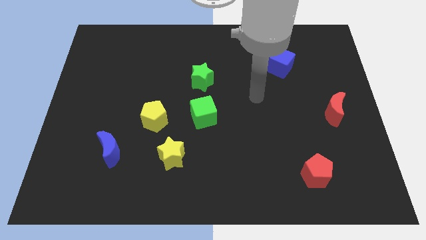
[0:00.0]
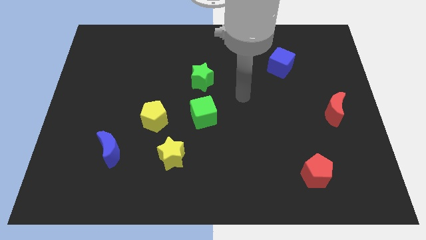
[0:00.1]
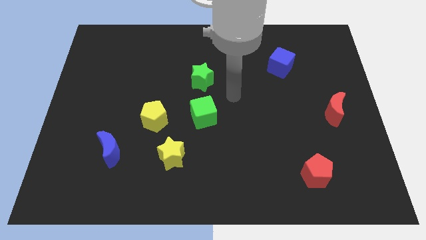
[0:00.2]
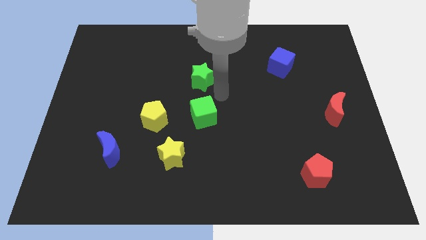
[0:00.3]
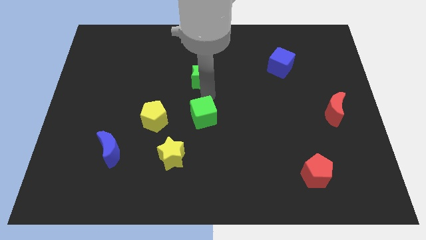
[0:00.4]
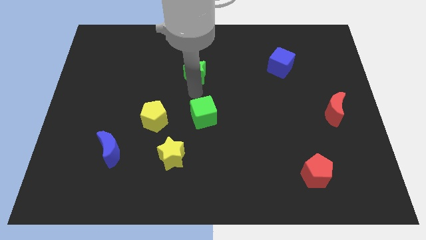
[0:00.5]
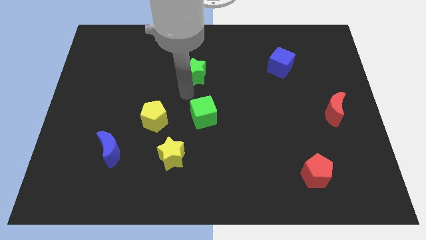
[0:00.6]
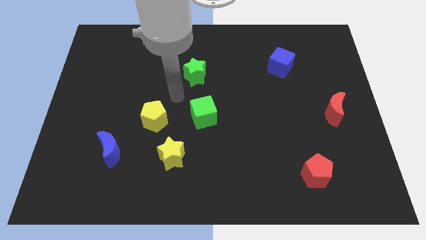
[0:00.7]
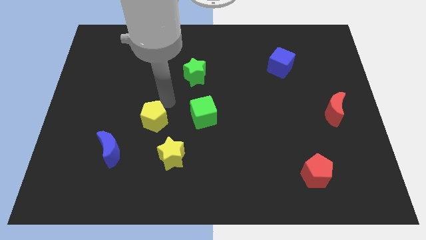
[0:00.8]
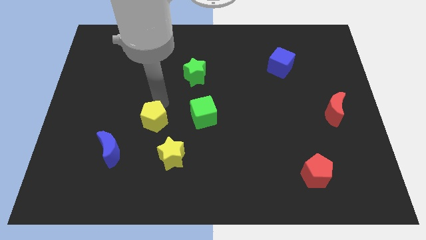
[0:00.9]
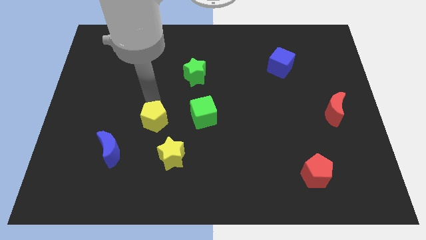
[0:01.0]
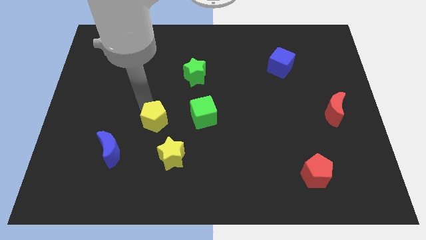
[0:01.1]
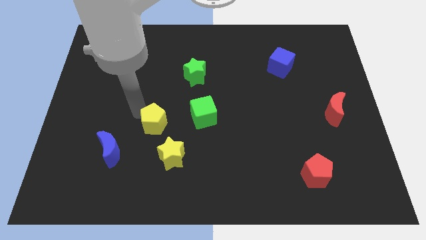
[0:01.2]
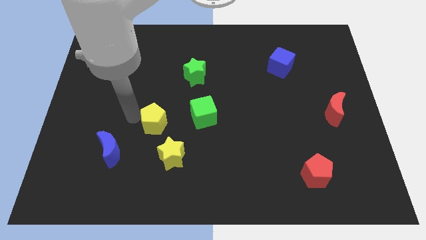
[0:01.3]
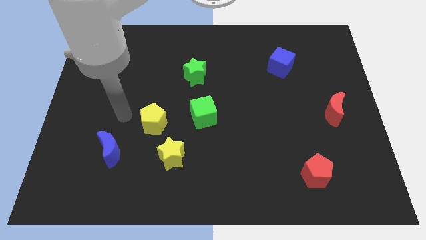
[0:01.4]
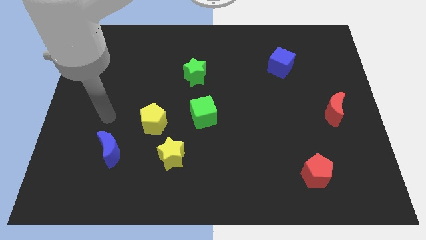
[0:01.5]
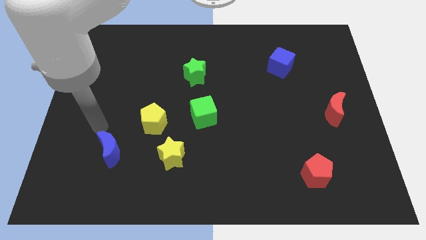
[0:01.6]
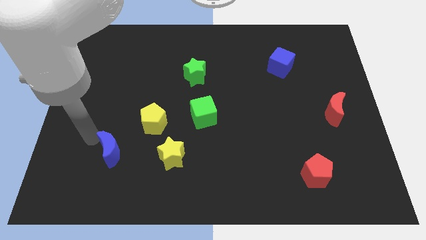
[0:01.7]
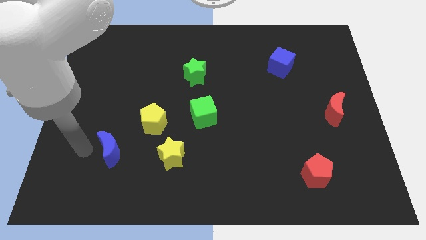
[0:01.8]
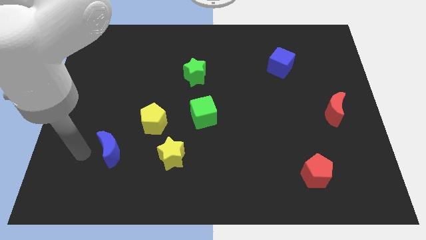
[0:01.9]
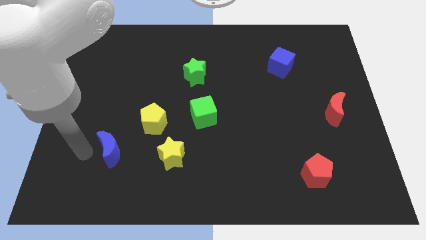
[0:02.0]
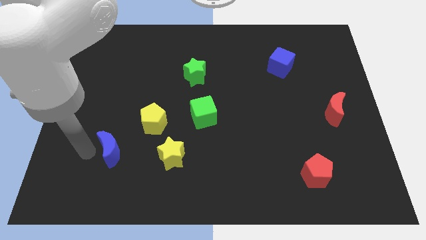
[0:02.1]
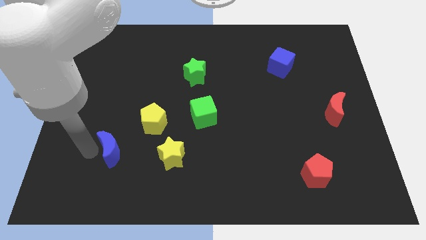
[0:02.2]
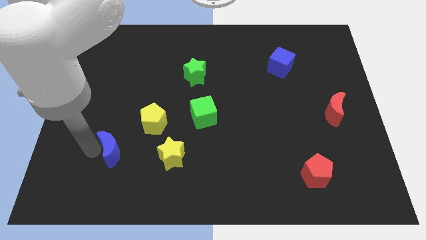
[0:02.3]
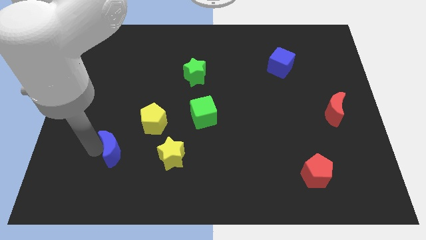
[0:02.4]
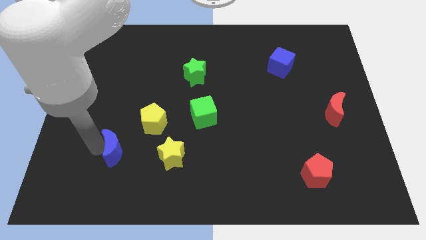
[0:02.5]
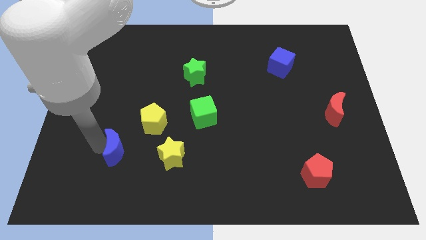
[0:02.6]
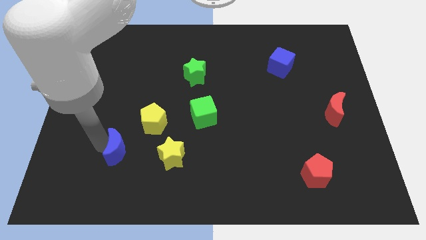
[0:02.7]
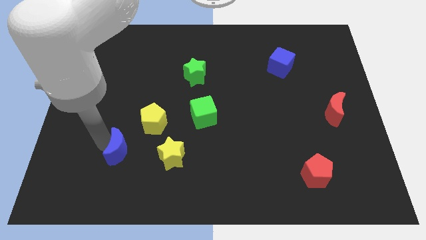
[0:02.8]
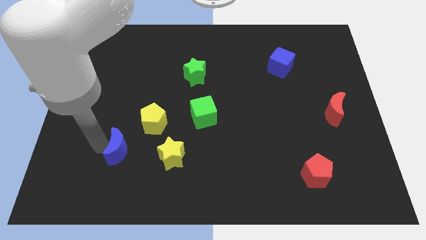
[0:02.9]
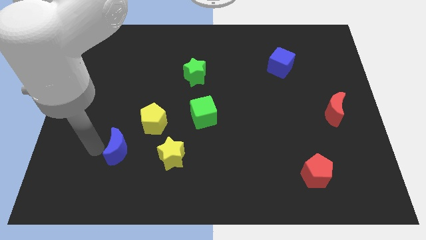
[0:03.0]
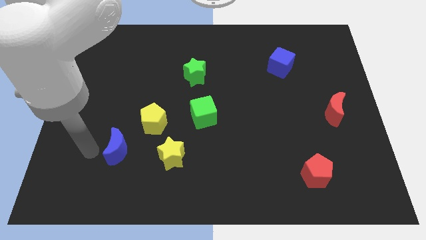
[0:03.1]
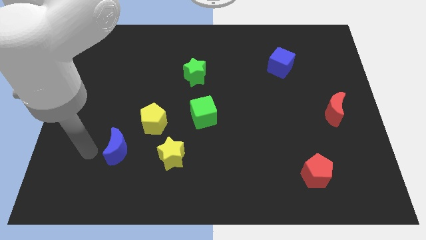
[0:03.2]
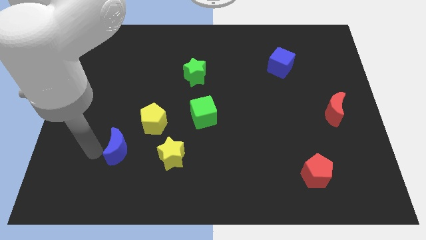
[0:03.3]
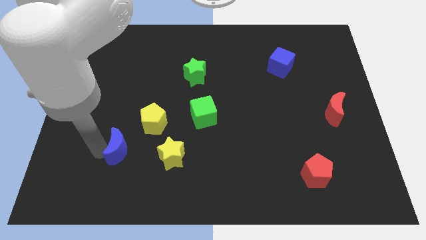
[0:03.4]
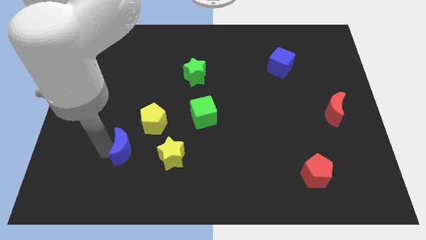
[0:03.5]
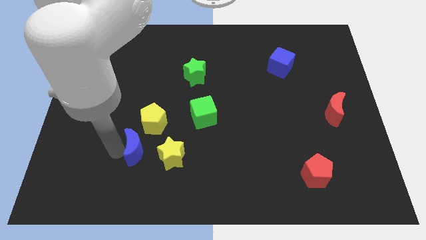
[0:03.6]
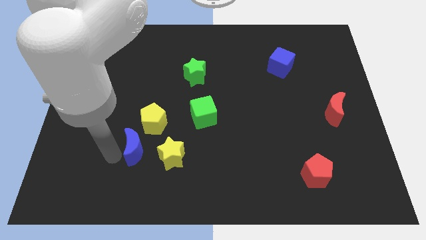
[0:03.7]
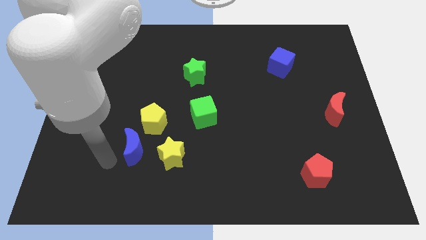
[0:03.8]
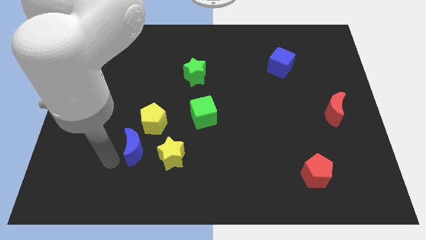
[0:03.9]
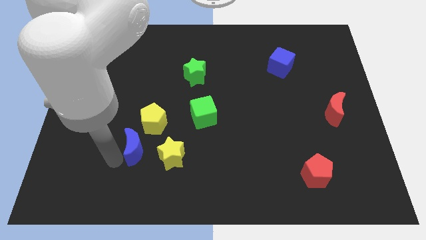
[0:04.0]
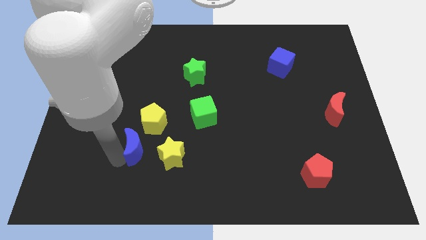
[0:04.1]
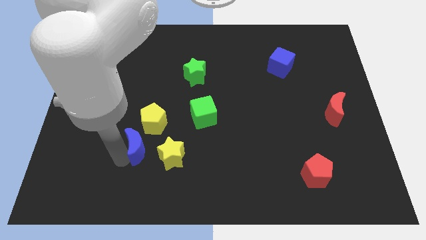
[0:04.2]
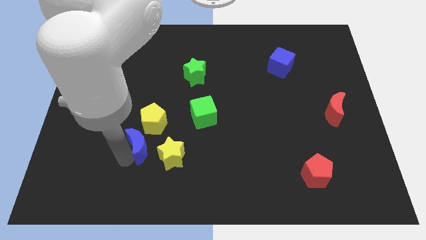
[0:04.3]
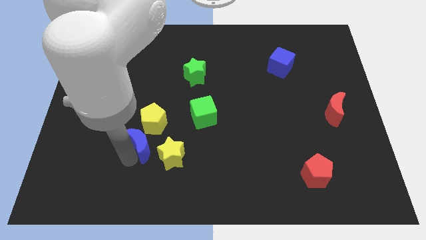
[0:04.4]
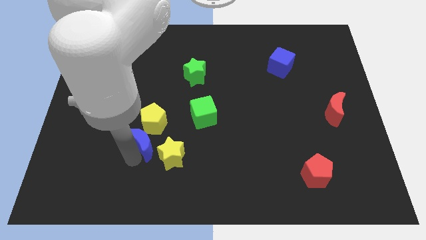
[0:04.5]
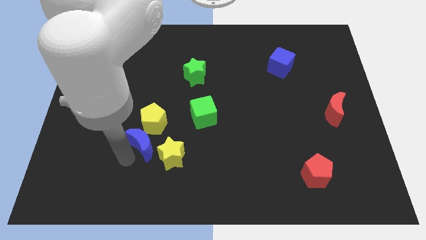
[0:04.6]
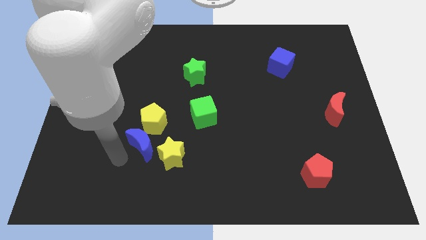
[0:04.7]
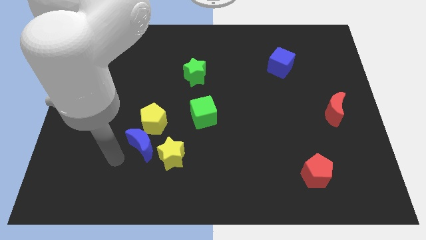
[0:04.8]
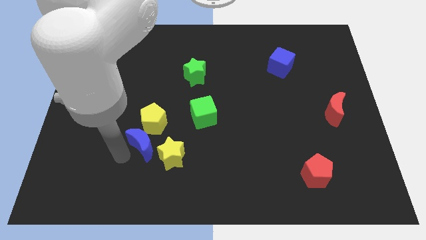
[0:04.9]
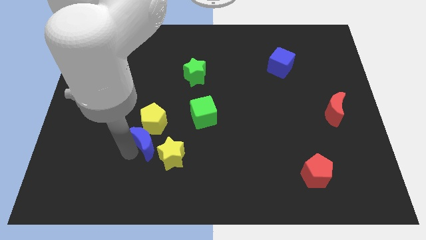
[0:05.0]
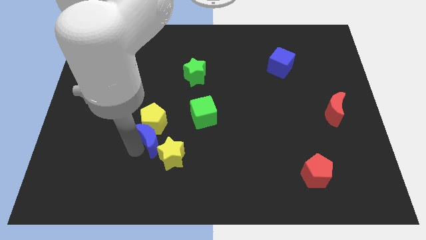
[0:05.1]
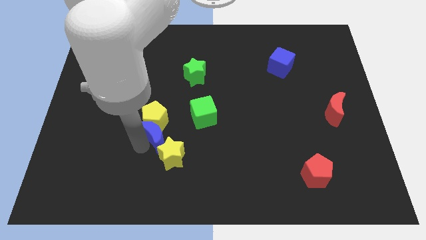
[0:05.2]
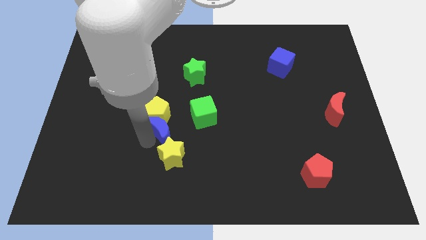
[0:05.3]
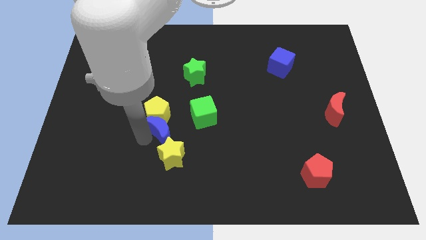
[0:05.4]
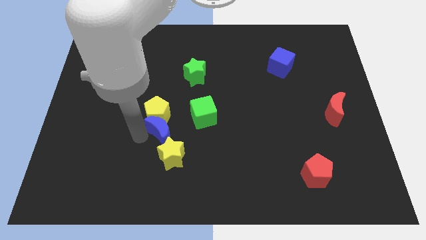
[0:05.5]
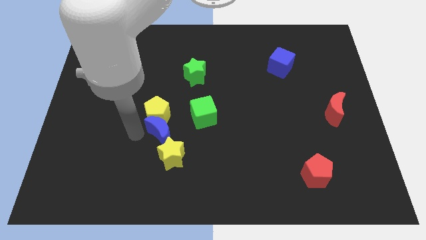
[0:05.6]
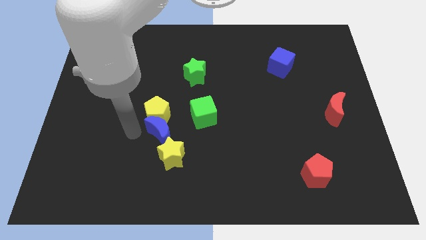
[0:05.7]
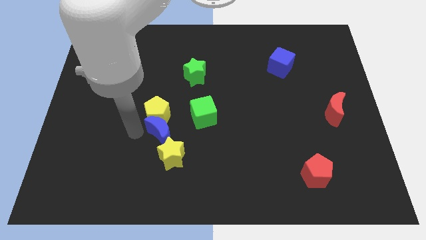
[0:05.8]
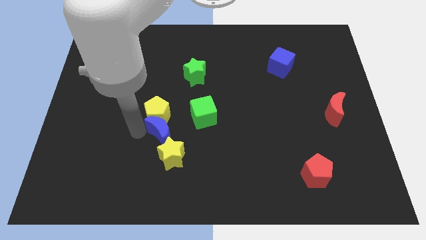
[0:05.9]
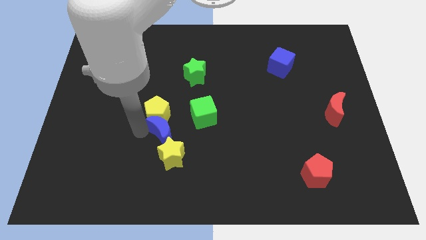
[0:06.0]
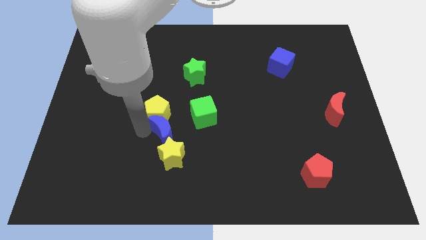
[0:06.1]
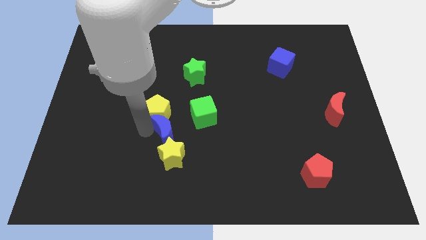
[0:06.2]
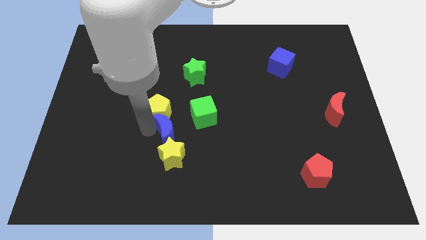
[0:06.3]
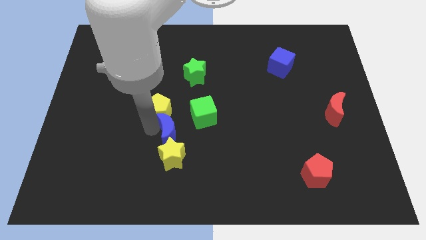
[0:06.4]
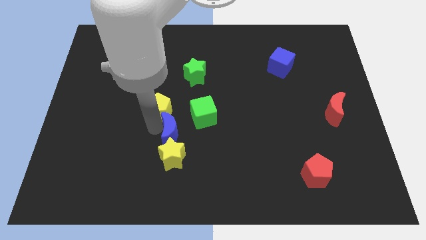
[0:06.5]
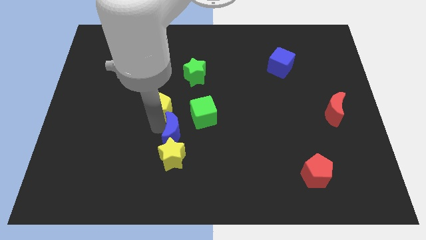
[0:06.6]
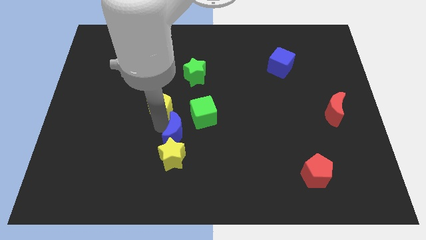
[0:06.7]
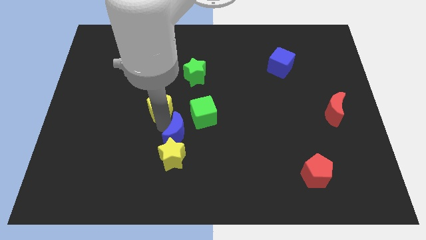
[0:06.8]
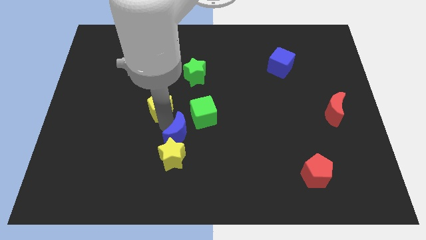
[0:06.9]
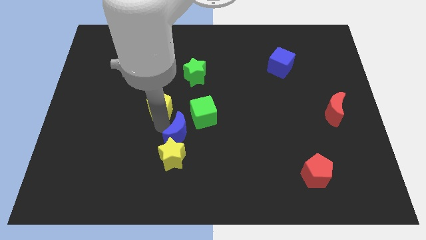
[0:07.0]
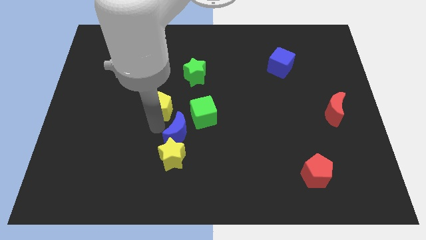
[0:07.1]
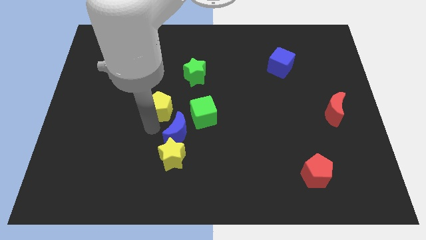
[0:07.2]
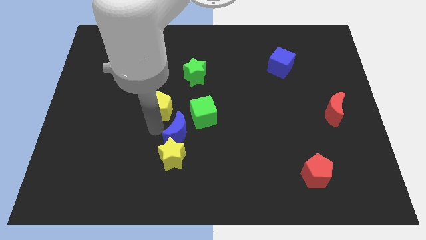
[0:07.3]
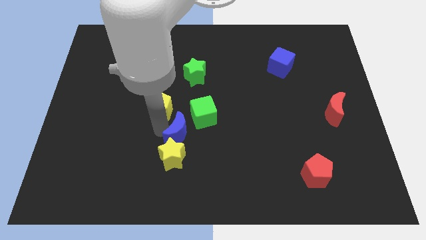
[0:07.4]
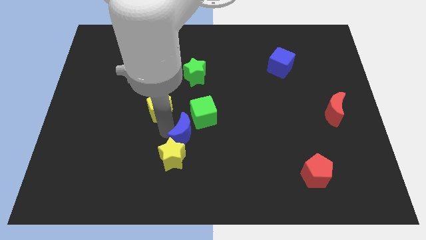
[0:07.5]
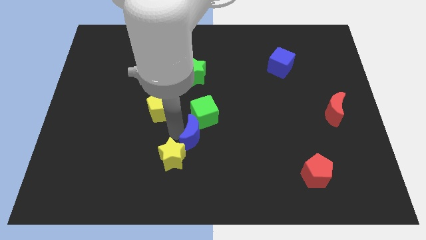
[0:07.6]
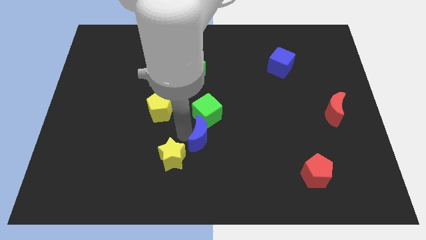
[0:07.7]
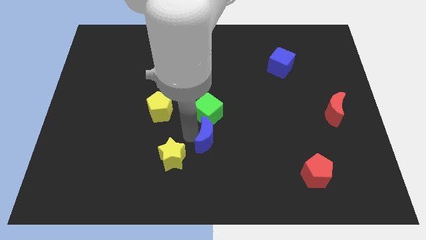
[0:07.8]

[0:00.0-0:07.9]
push the blue moon right
